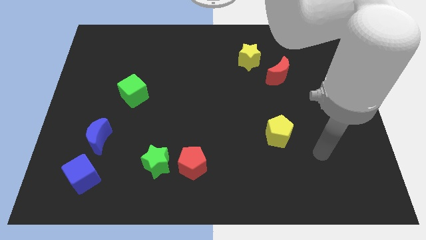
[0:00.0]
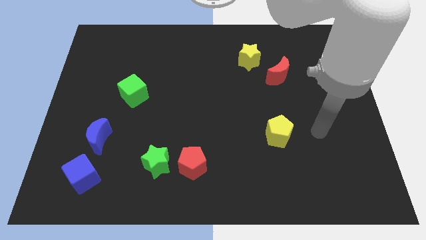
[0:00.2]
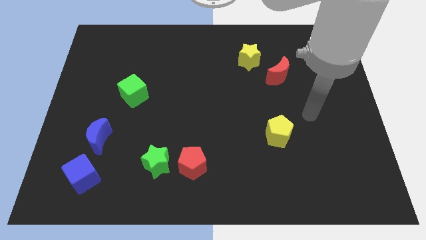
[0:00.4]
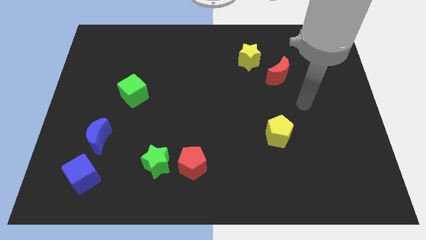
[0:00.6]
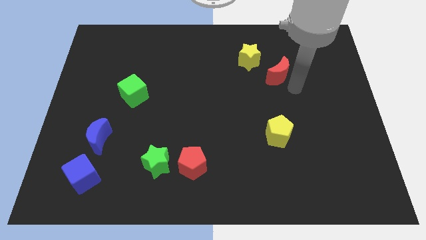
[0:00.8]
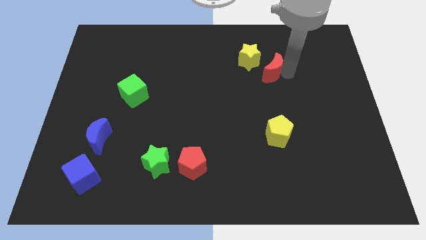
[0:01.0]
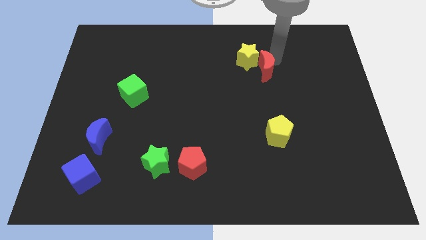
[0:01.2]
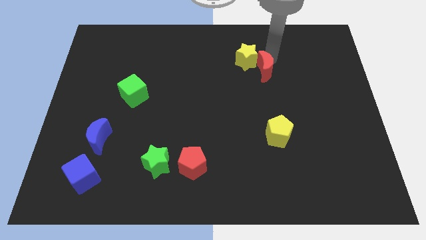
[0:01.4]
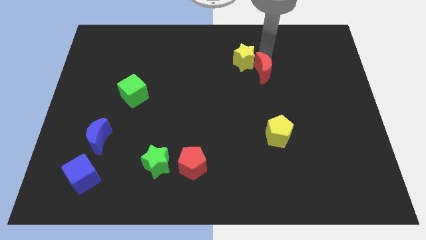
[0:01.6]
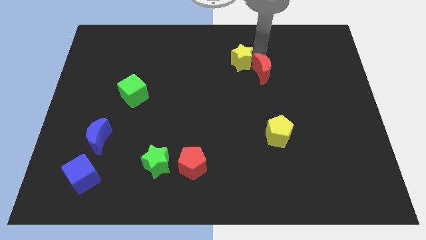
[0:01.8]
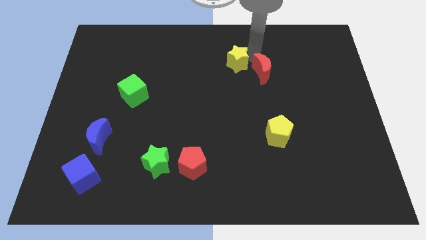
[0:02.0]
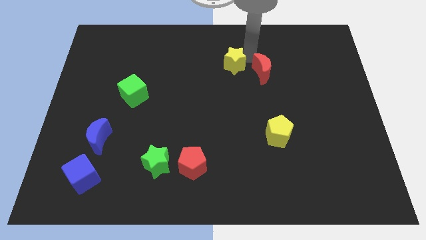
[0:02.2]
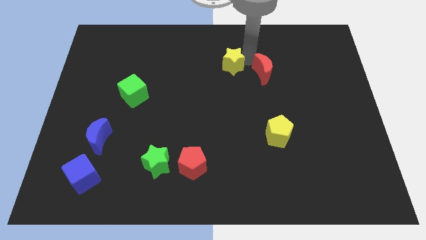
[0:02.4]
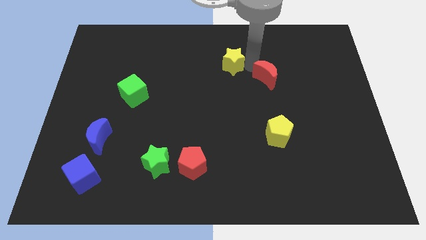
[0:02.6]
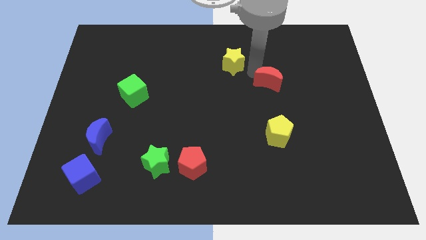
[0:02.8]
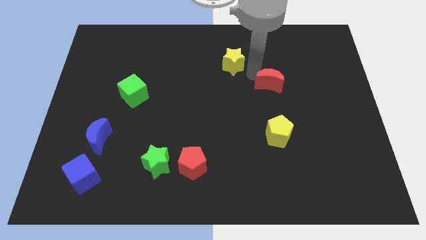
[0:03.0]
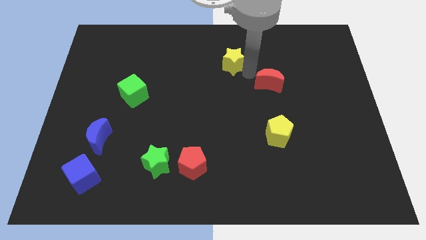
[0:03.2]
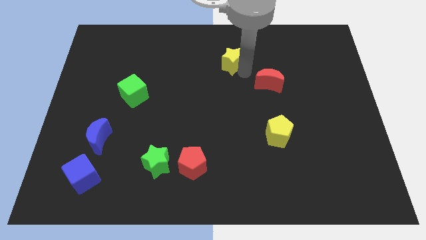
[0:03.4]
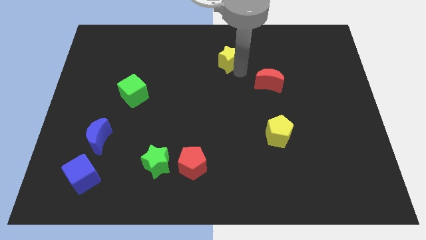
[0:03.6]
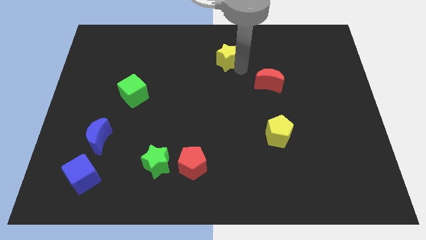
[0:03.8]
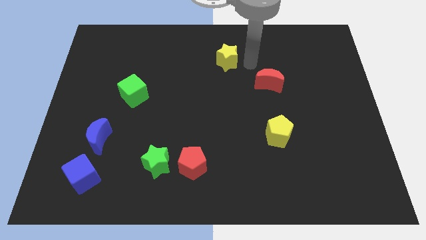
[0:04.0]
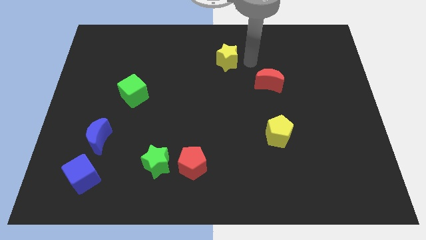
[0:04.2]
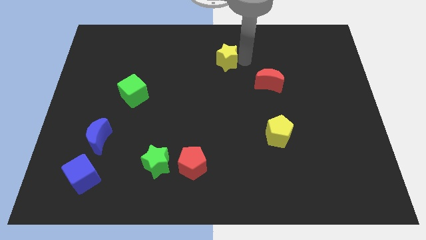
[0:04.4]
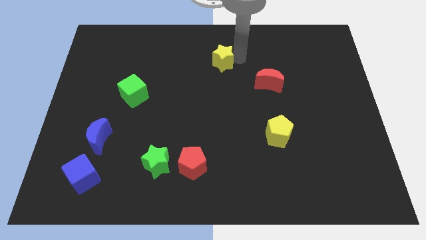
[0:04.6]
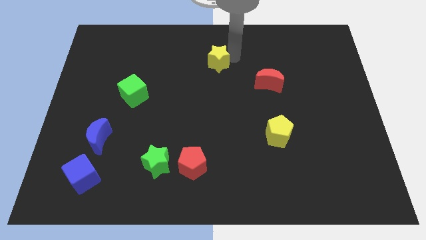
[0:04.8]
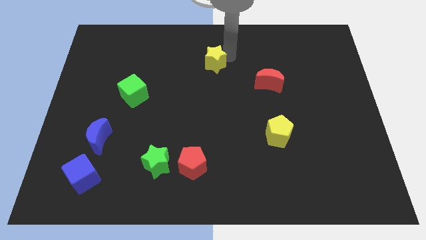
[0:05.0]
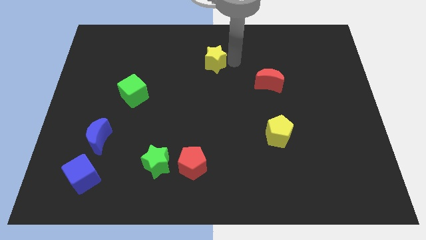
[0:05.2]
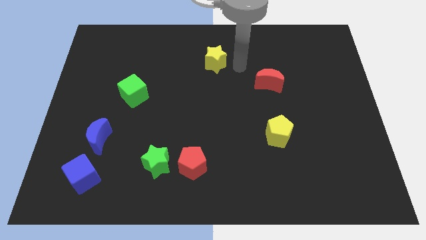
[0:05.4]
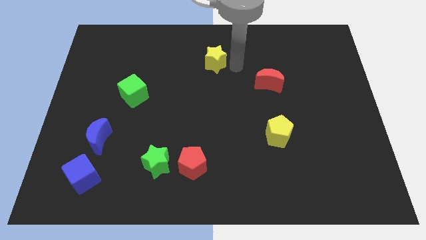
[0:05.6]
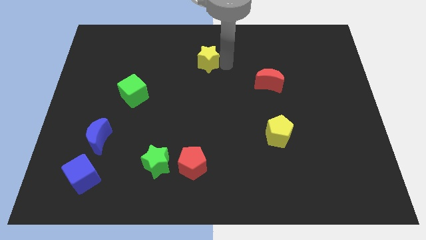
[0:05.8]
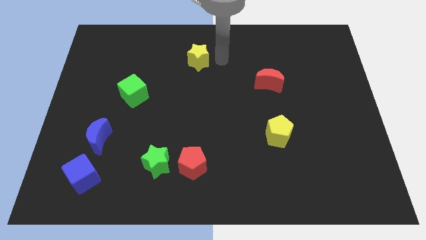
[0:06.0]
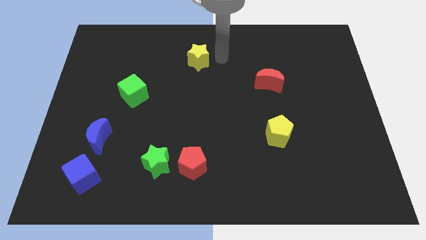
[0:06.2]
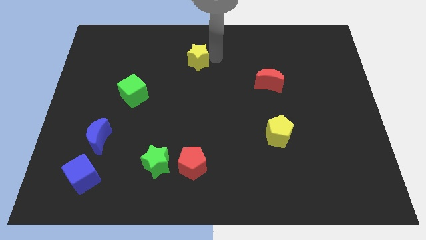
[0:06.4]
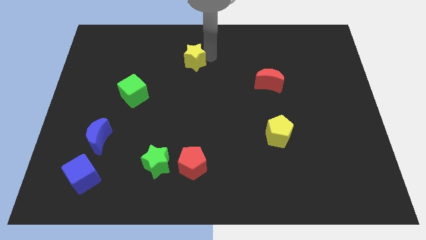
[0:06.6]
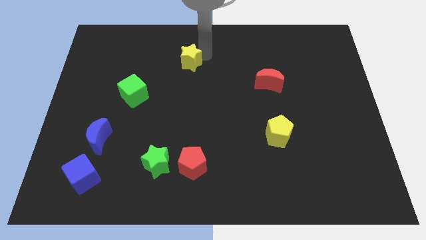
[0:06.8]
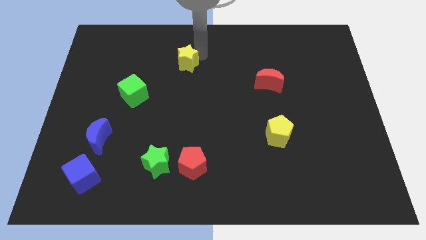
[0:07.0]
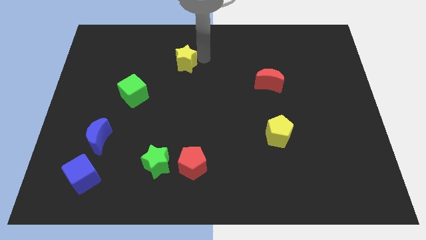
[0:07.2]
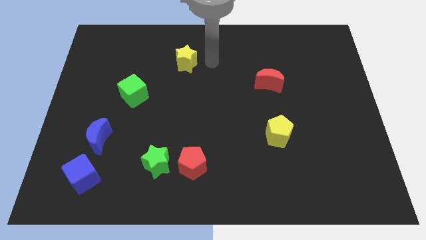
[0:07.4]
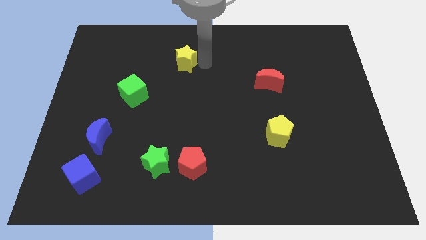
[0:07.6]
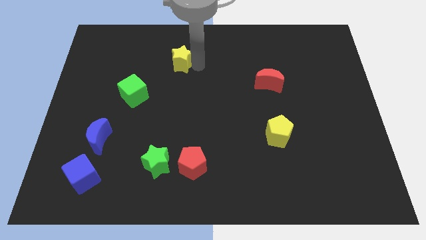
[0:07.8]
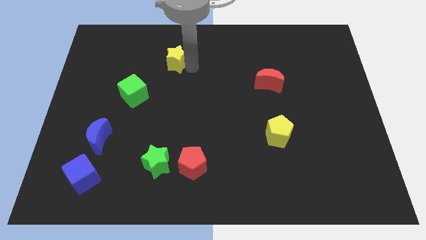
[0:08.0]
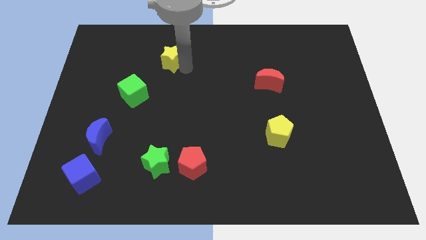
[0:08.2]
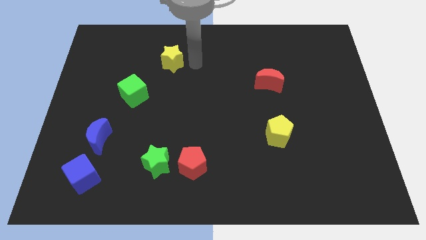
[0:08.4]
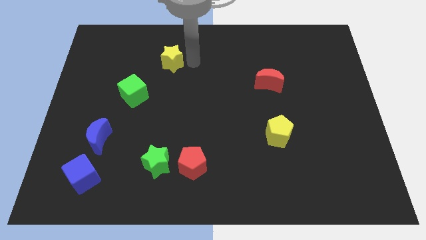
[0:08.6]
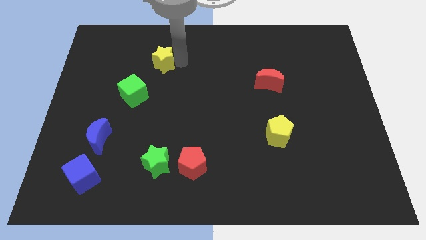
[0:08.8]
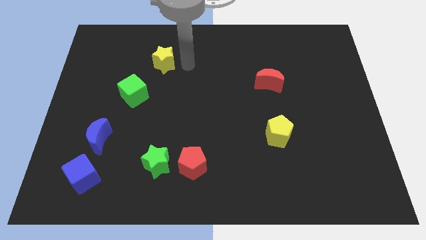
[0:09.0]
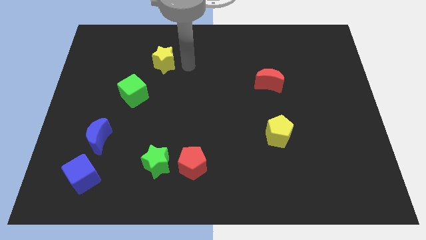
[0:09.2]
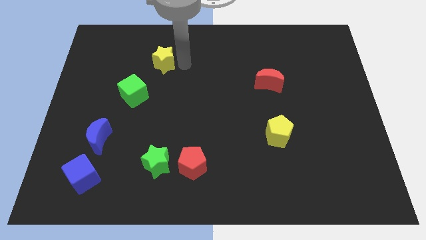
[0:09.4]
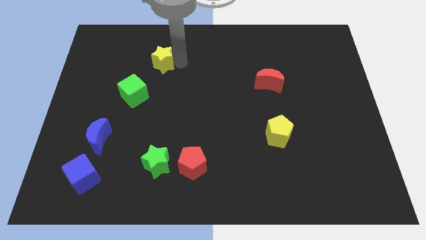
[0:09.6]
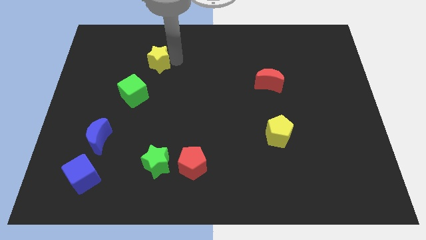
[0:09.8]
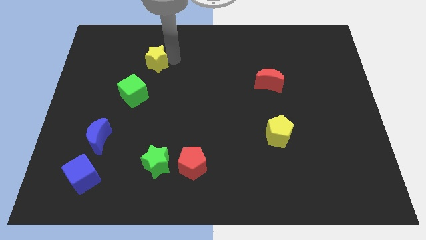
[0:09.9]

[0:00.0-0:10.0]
push the yellow star above the green cube

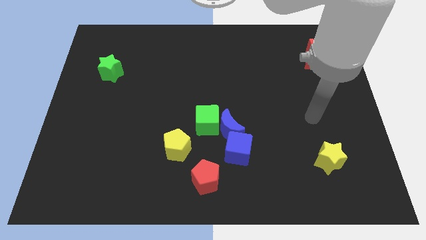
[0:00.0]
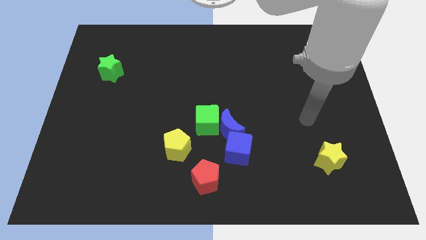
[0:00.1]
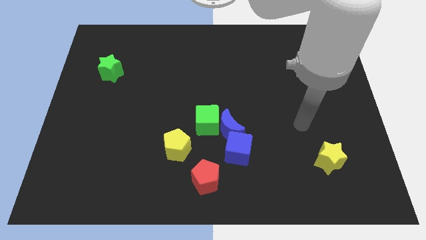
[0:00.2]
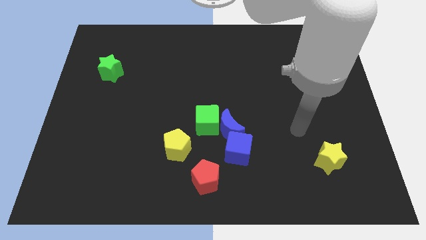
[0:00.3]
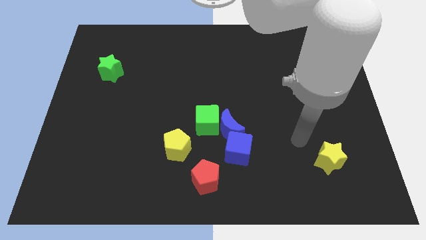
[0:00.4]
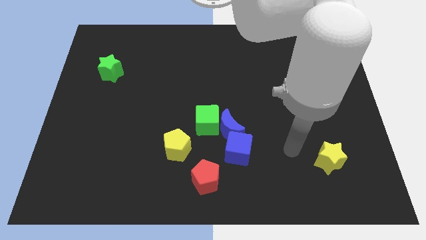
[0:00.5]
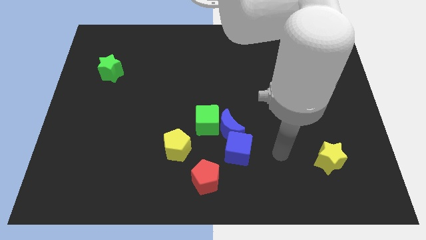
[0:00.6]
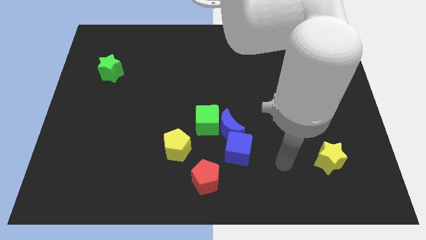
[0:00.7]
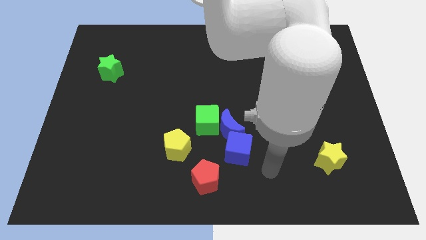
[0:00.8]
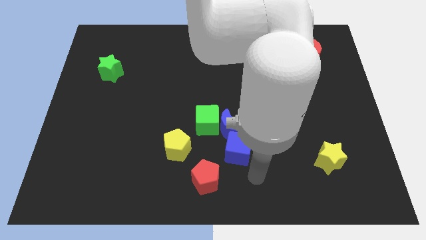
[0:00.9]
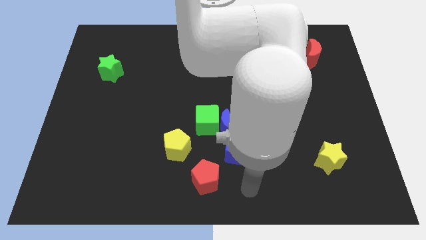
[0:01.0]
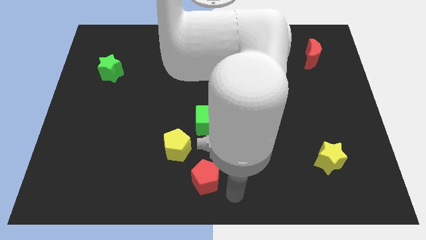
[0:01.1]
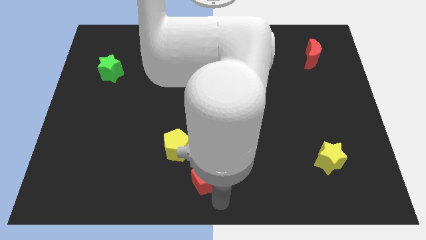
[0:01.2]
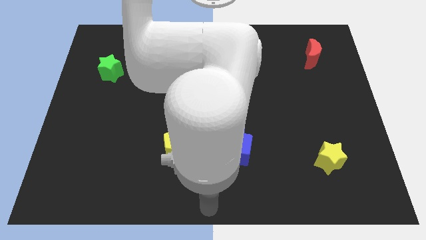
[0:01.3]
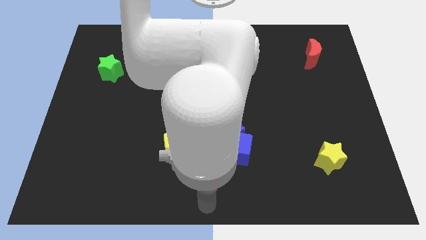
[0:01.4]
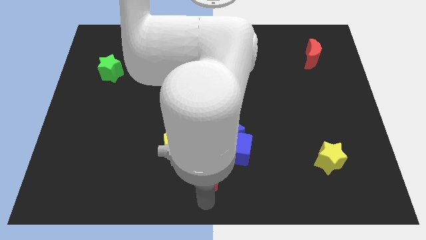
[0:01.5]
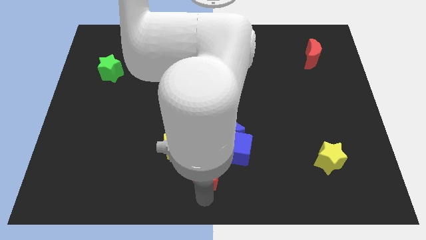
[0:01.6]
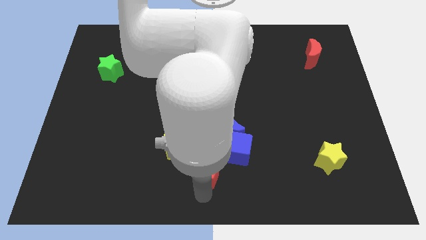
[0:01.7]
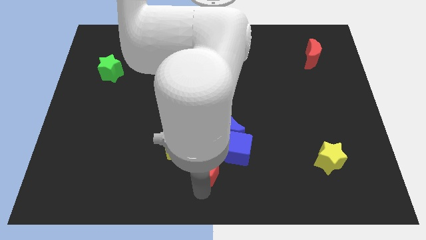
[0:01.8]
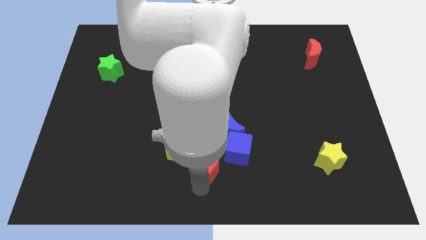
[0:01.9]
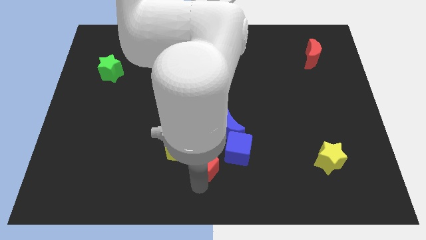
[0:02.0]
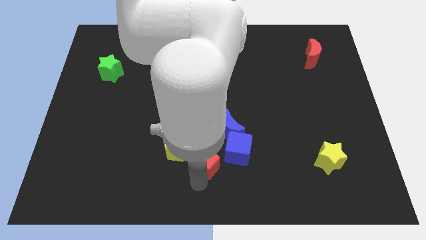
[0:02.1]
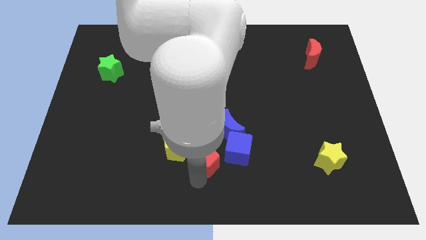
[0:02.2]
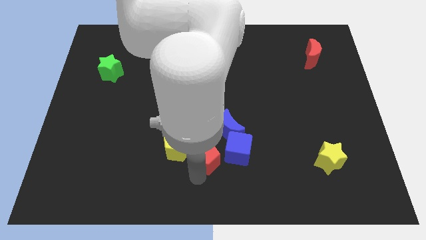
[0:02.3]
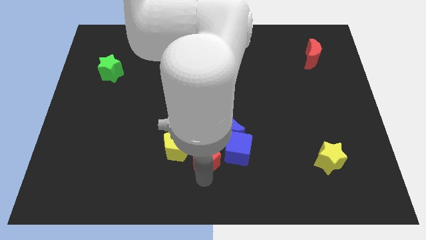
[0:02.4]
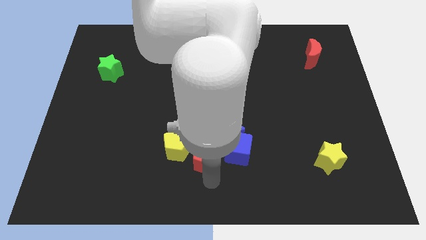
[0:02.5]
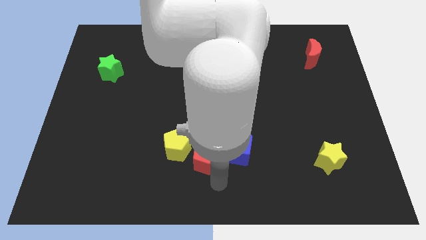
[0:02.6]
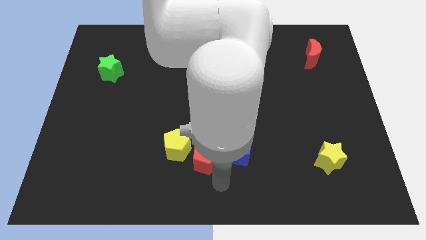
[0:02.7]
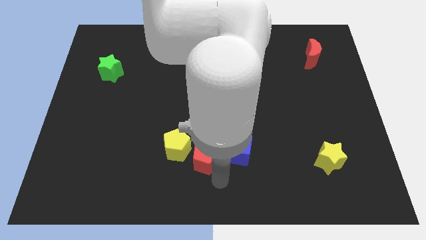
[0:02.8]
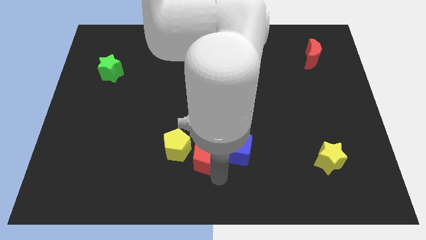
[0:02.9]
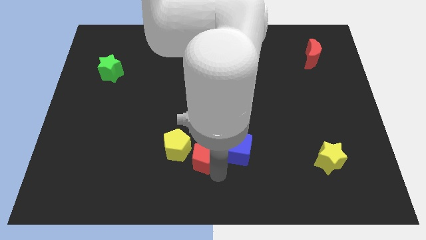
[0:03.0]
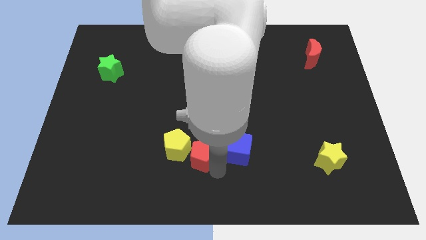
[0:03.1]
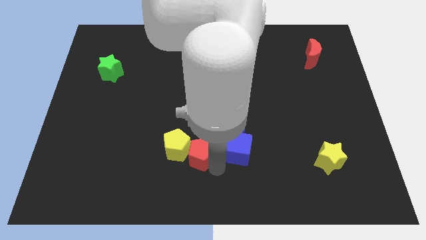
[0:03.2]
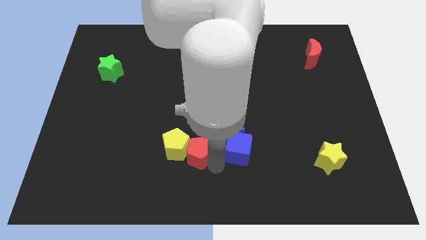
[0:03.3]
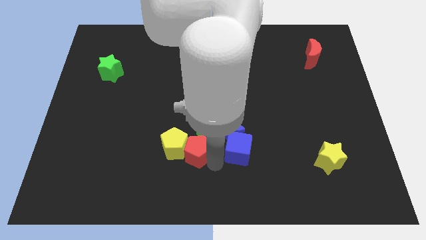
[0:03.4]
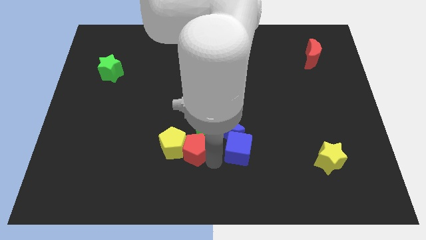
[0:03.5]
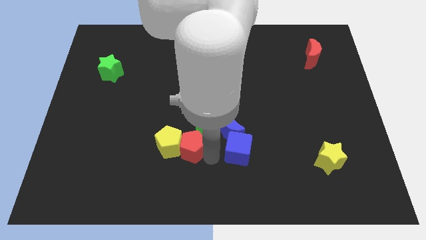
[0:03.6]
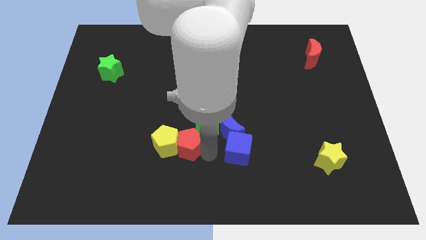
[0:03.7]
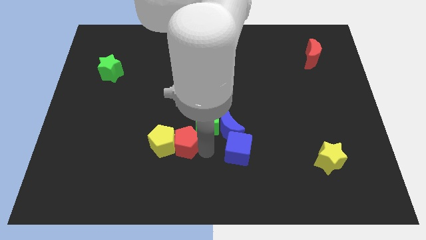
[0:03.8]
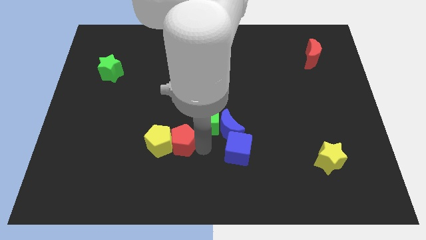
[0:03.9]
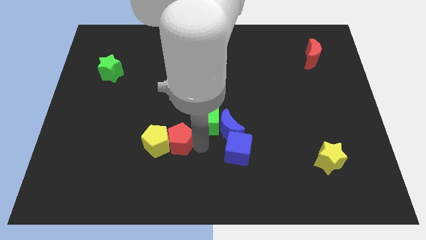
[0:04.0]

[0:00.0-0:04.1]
put the red pentagon left of the green cube
